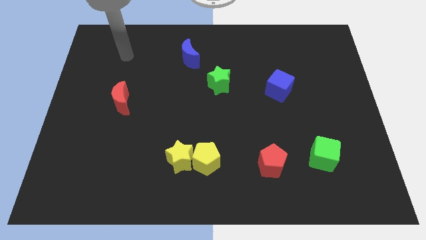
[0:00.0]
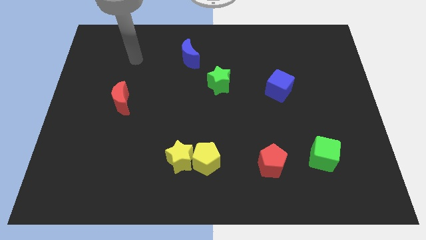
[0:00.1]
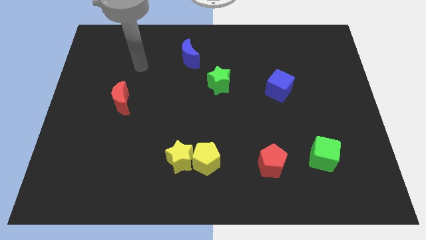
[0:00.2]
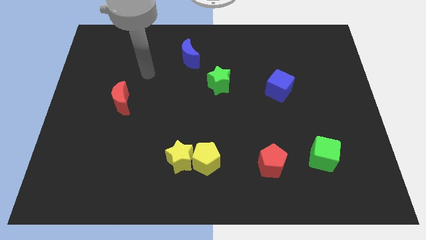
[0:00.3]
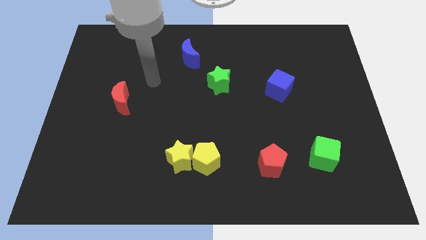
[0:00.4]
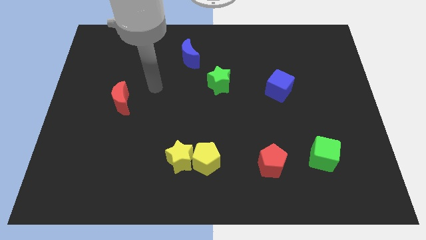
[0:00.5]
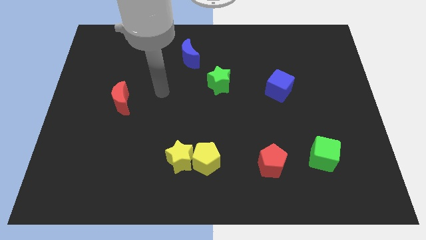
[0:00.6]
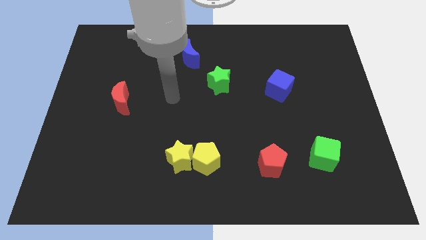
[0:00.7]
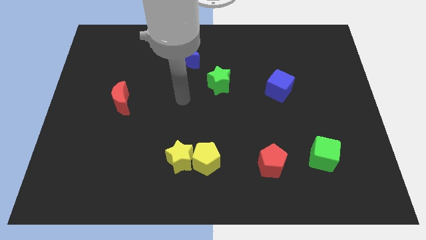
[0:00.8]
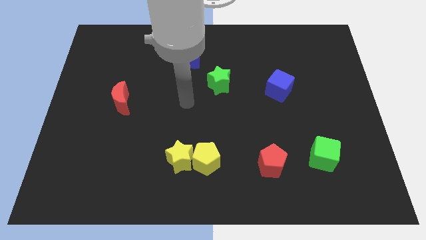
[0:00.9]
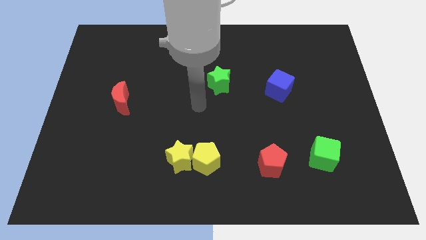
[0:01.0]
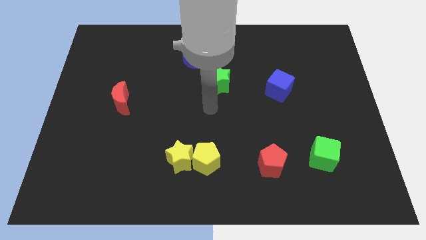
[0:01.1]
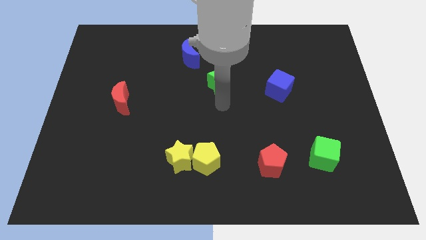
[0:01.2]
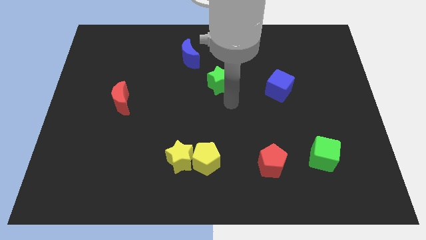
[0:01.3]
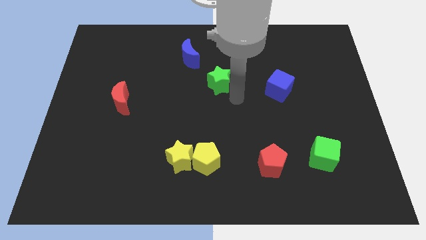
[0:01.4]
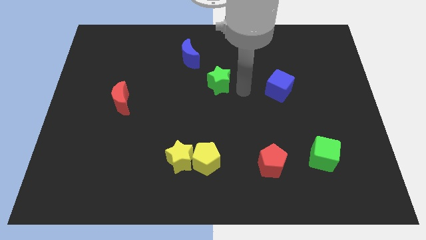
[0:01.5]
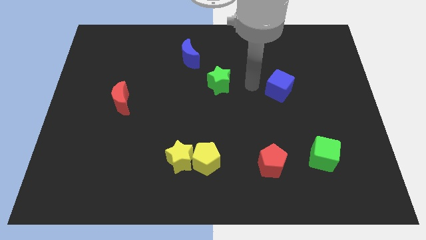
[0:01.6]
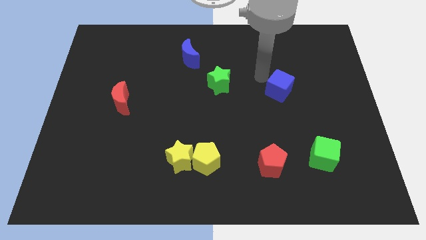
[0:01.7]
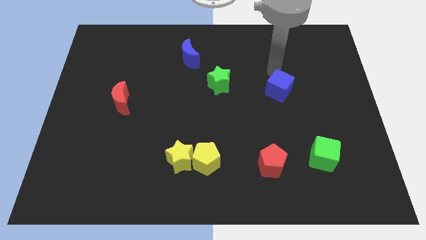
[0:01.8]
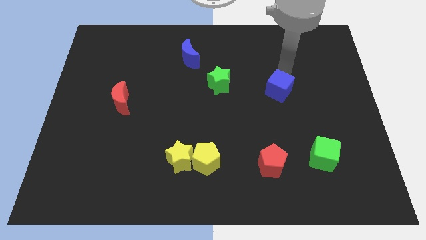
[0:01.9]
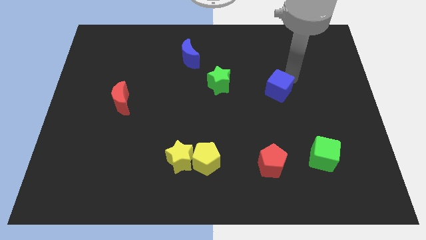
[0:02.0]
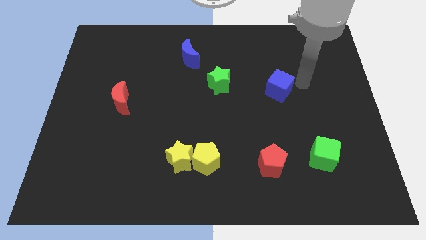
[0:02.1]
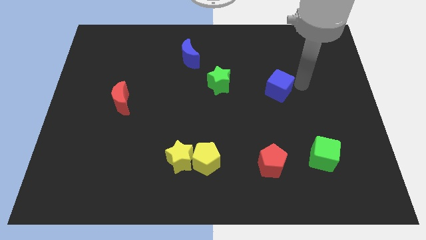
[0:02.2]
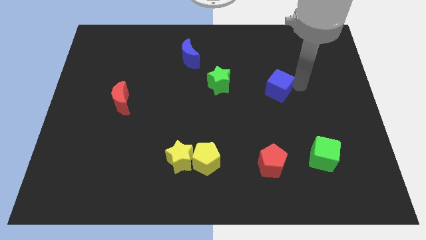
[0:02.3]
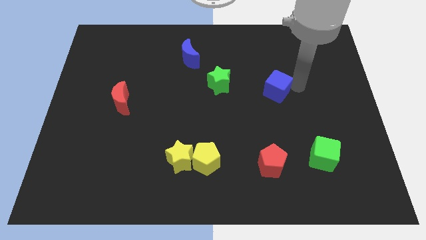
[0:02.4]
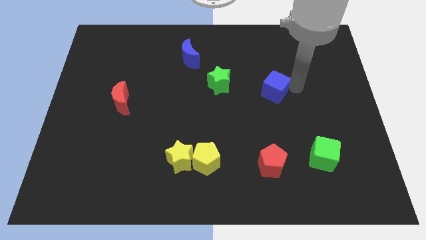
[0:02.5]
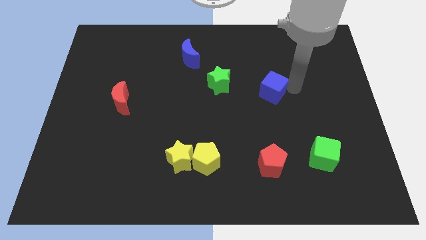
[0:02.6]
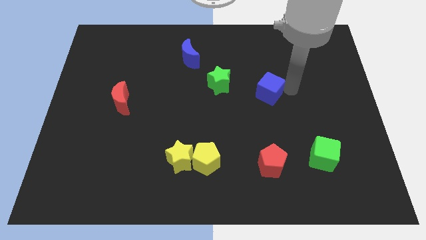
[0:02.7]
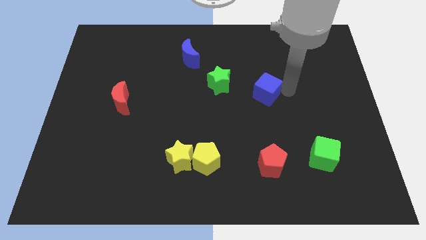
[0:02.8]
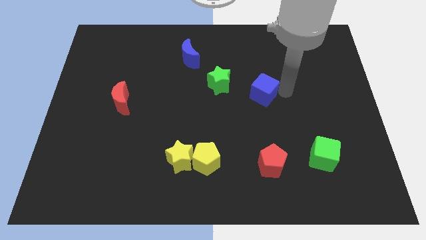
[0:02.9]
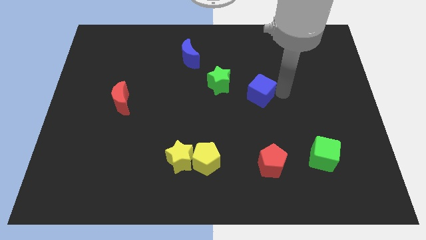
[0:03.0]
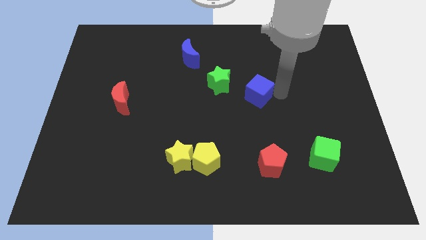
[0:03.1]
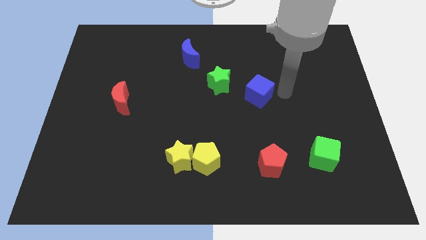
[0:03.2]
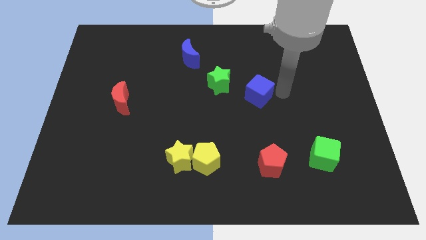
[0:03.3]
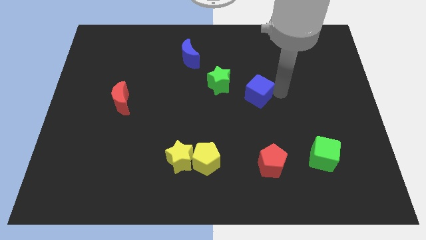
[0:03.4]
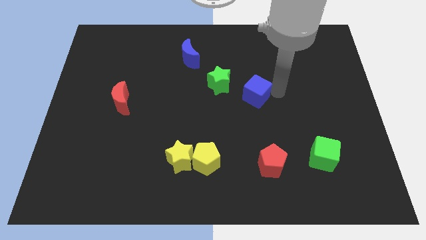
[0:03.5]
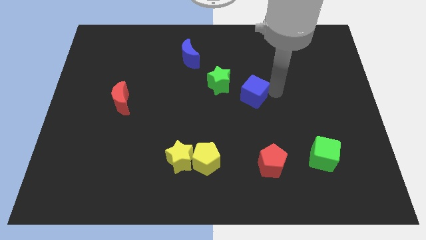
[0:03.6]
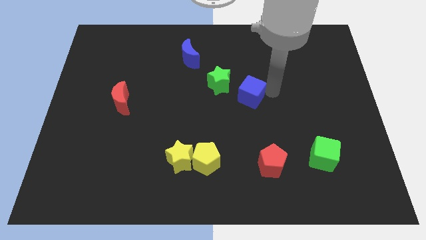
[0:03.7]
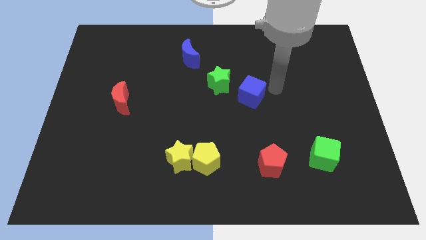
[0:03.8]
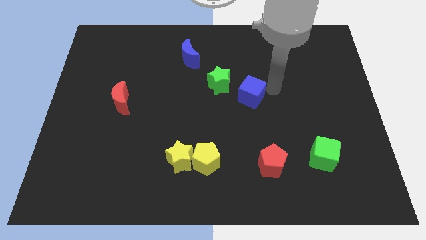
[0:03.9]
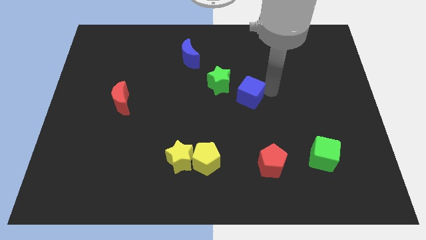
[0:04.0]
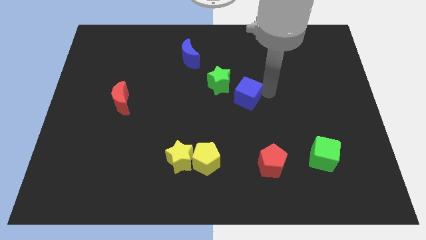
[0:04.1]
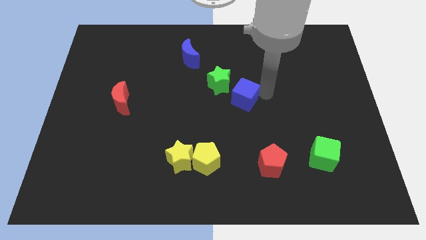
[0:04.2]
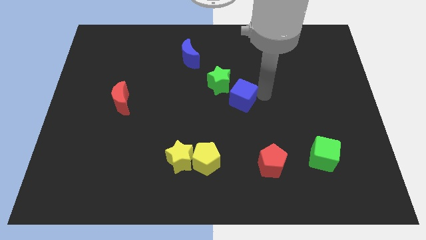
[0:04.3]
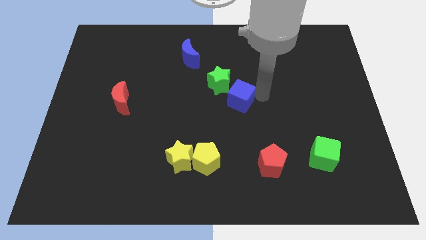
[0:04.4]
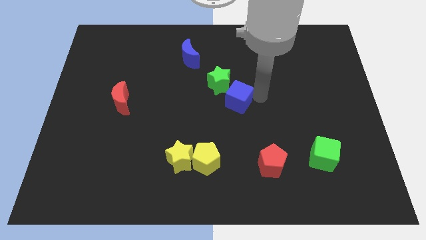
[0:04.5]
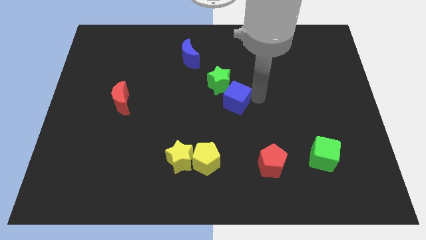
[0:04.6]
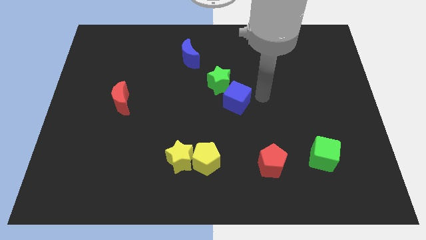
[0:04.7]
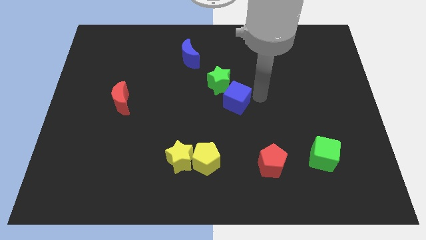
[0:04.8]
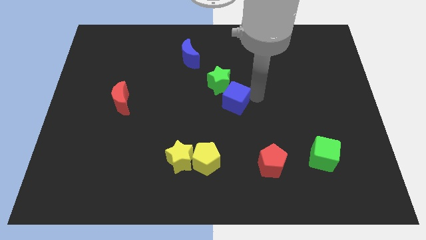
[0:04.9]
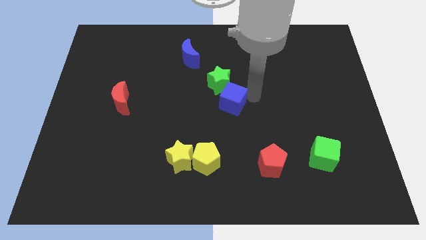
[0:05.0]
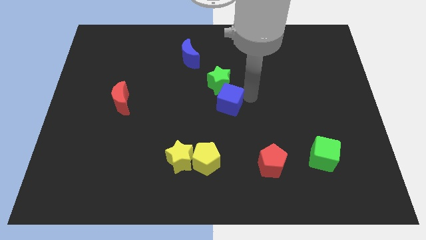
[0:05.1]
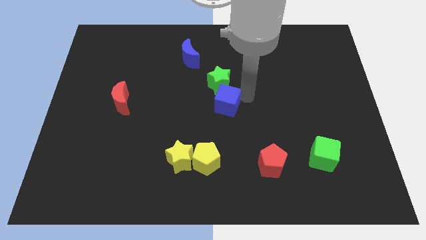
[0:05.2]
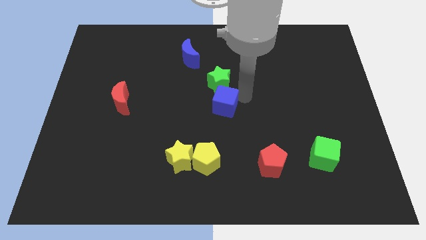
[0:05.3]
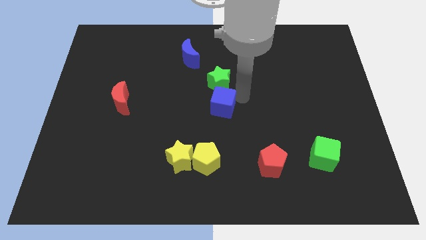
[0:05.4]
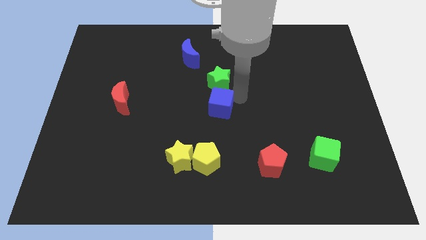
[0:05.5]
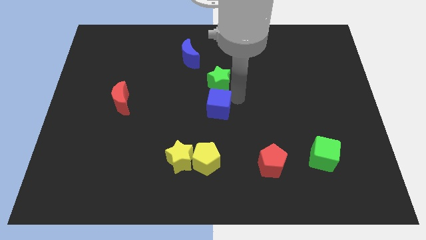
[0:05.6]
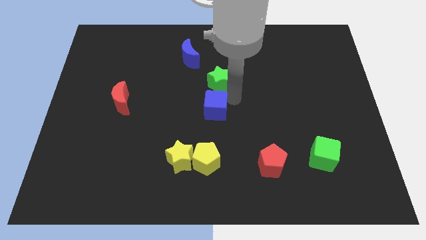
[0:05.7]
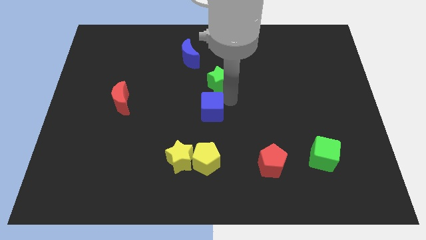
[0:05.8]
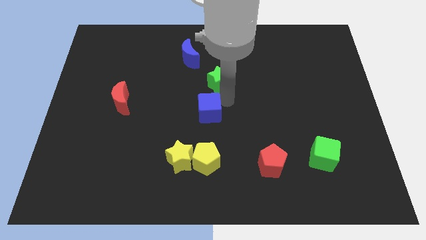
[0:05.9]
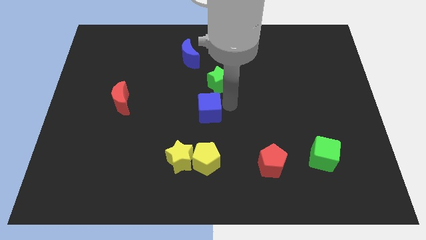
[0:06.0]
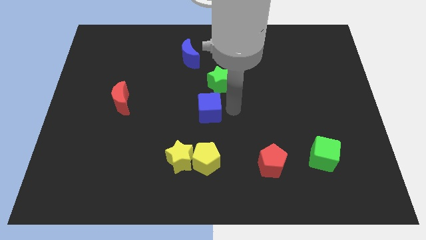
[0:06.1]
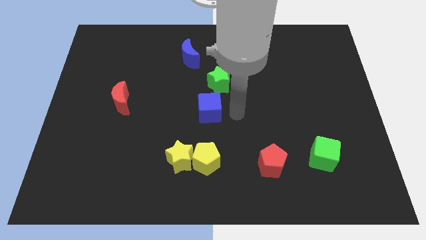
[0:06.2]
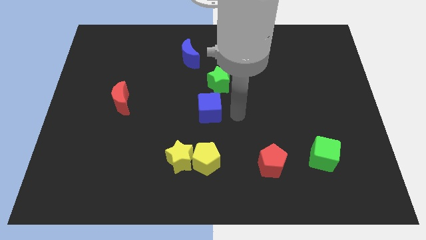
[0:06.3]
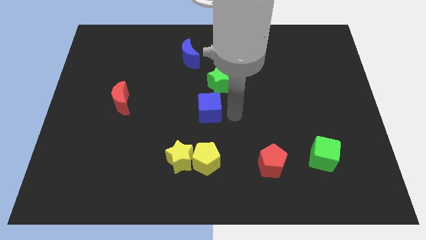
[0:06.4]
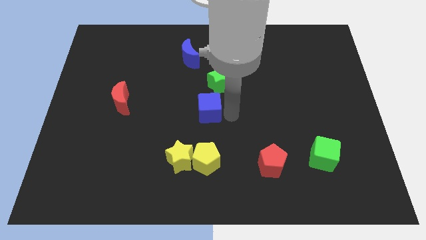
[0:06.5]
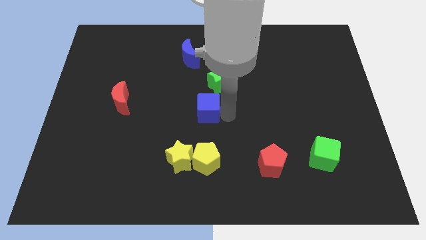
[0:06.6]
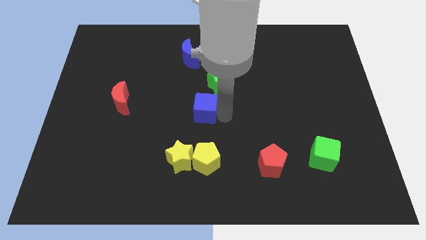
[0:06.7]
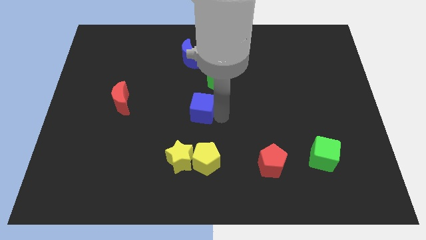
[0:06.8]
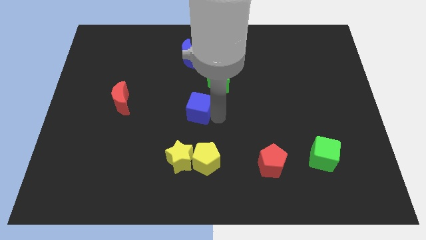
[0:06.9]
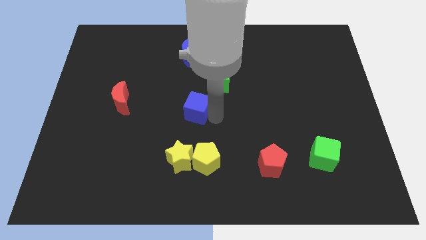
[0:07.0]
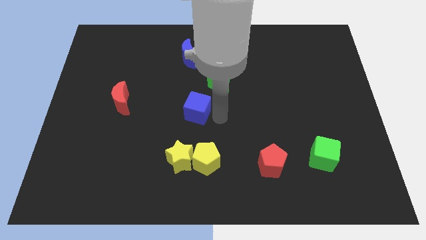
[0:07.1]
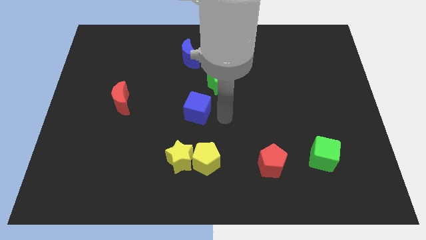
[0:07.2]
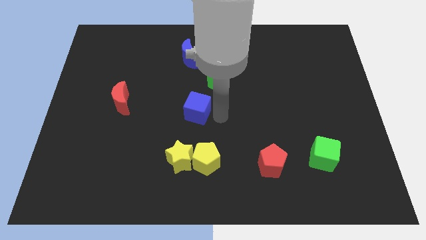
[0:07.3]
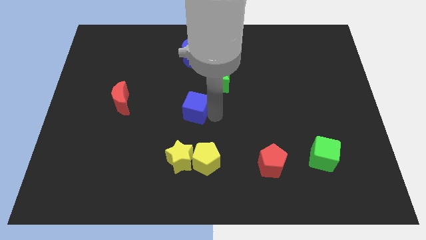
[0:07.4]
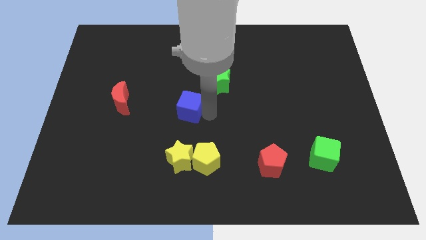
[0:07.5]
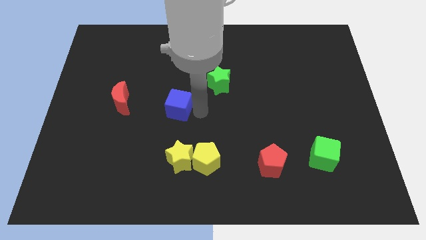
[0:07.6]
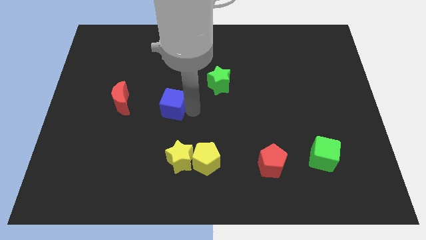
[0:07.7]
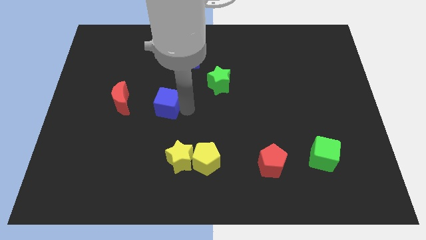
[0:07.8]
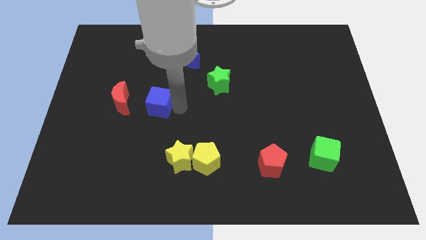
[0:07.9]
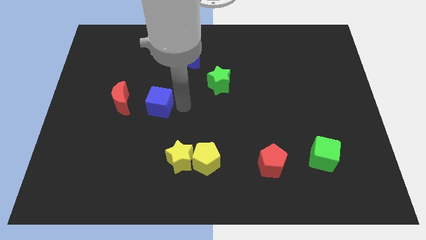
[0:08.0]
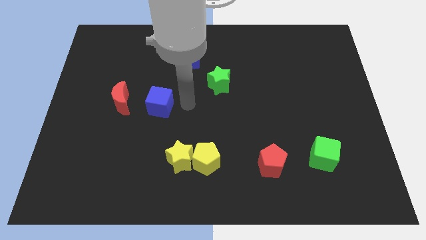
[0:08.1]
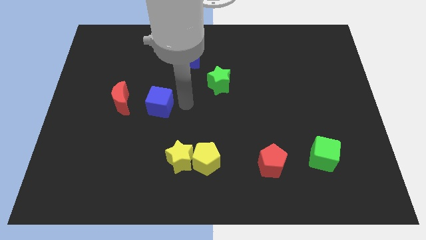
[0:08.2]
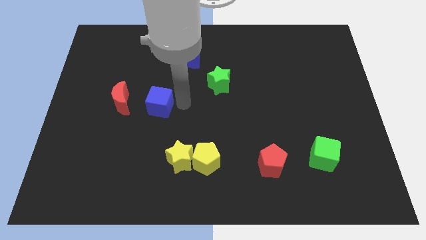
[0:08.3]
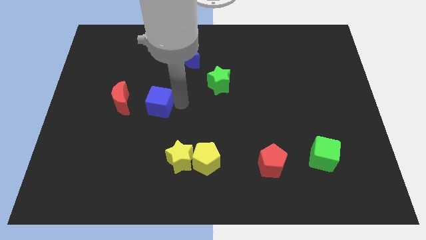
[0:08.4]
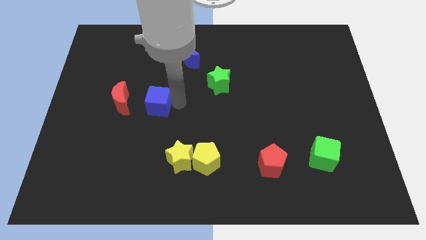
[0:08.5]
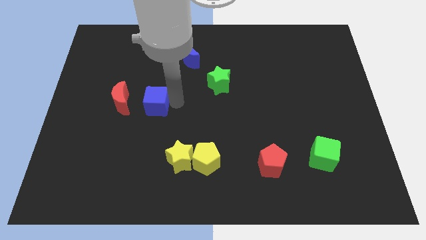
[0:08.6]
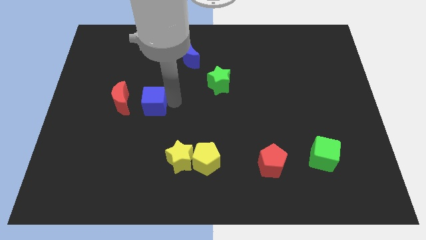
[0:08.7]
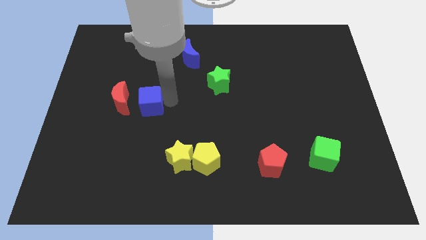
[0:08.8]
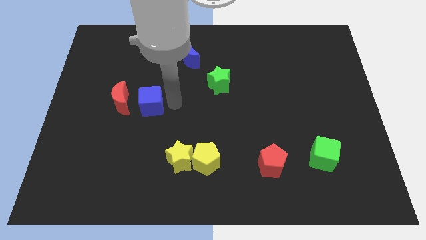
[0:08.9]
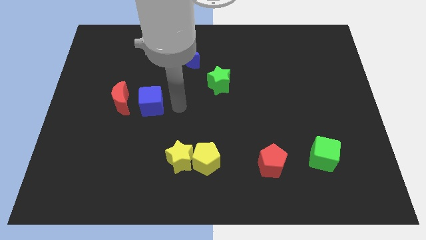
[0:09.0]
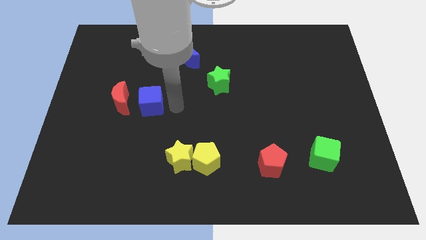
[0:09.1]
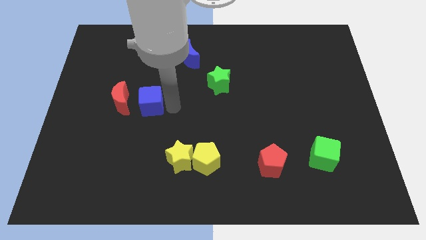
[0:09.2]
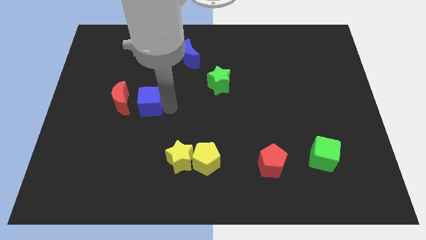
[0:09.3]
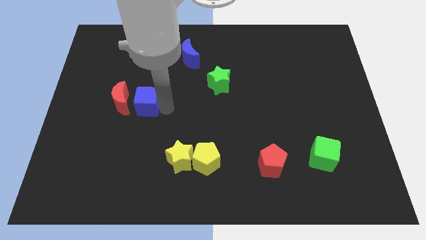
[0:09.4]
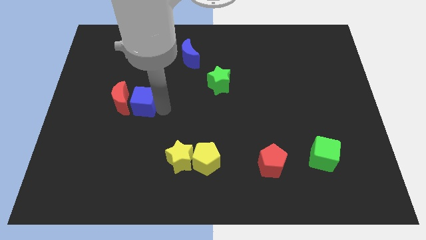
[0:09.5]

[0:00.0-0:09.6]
push the blue cube to the red moon
